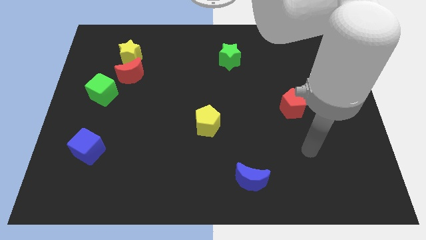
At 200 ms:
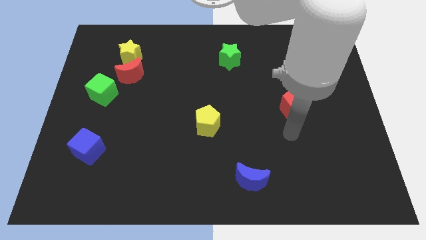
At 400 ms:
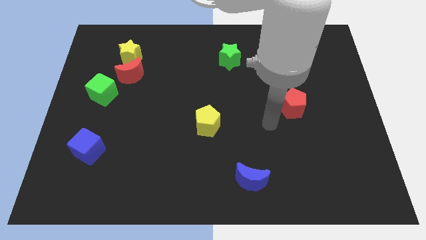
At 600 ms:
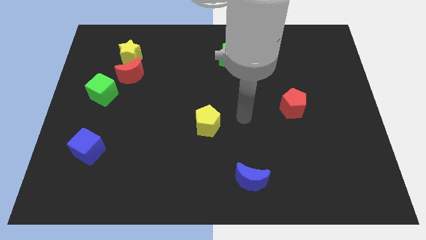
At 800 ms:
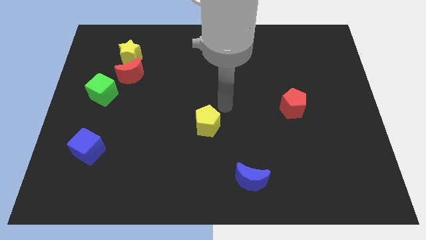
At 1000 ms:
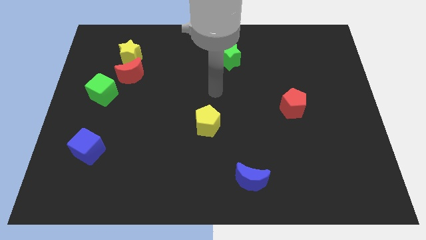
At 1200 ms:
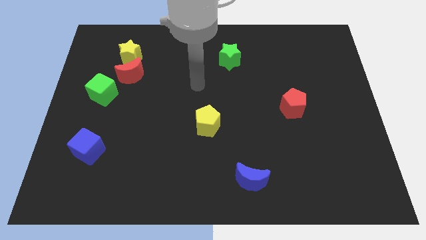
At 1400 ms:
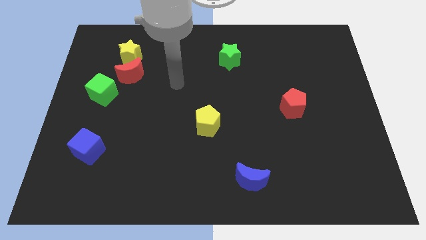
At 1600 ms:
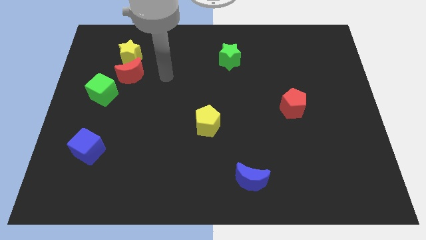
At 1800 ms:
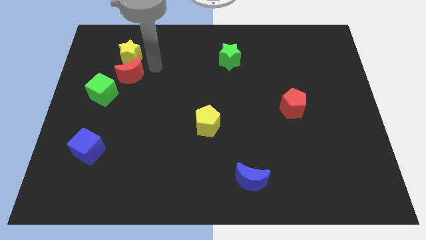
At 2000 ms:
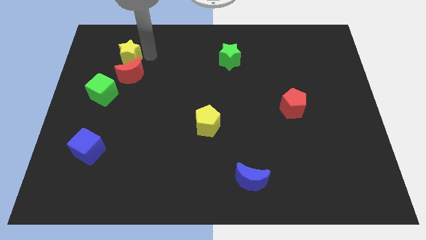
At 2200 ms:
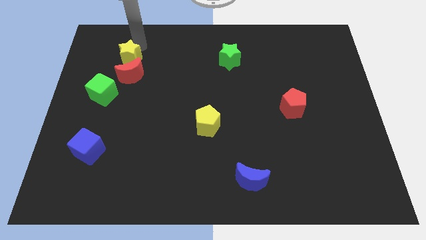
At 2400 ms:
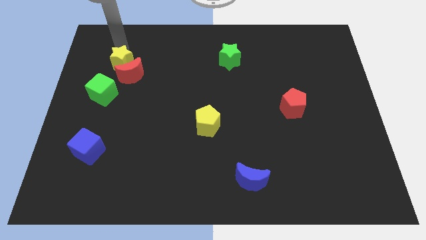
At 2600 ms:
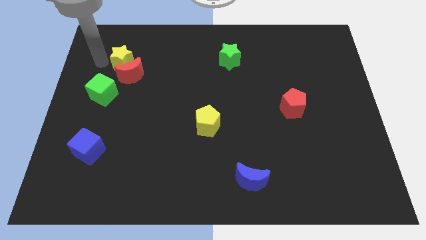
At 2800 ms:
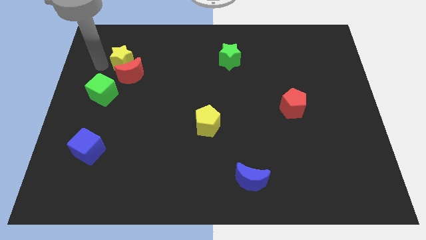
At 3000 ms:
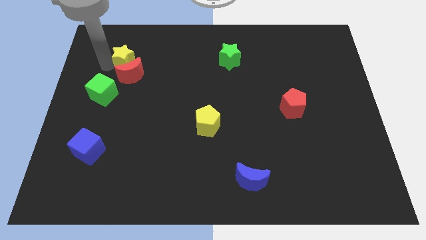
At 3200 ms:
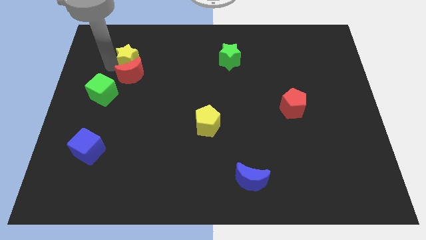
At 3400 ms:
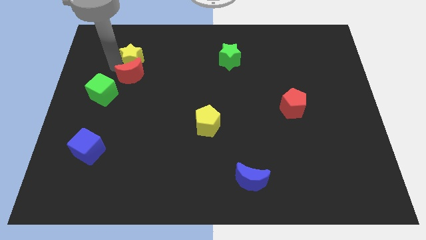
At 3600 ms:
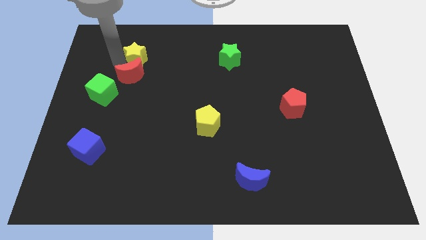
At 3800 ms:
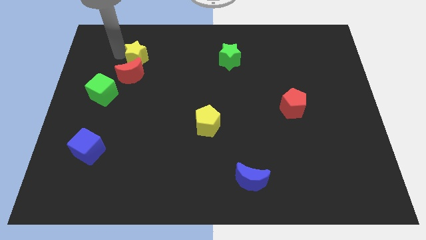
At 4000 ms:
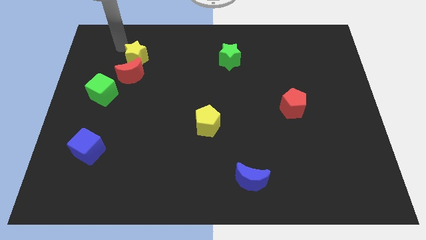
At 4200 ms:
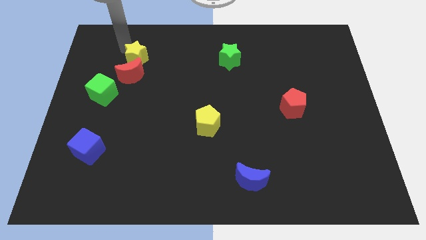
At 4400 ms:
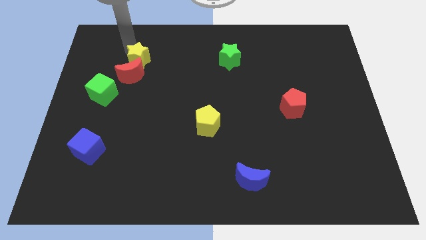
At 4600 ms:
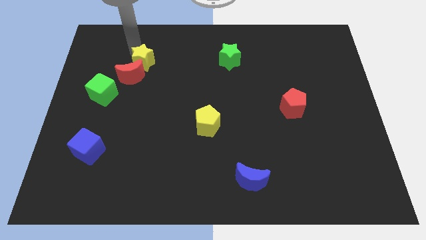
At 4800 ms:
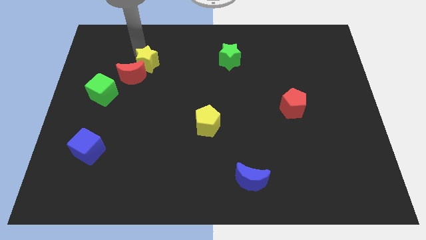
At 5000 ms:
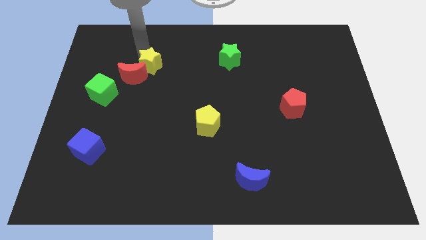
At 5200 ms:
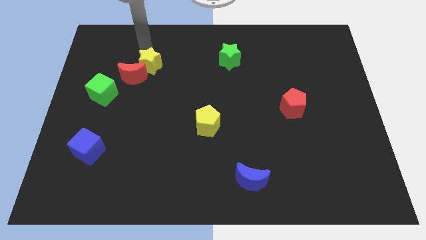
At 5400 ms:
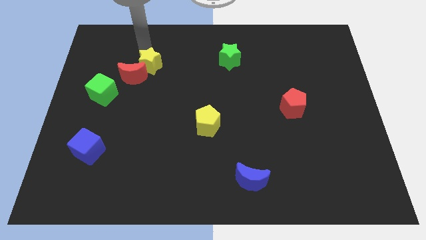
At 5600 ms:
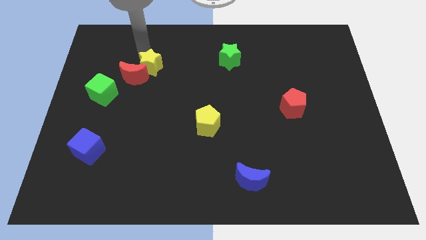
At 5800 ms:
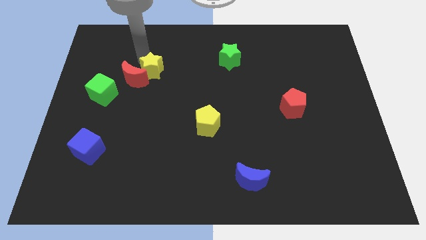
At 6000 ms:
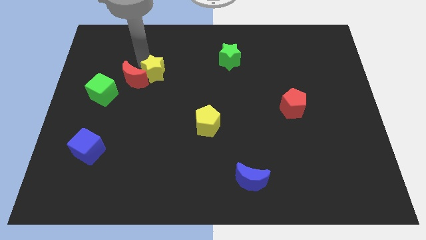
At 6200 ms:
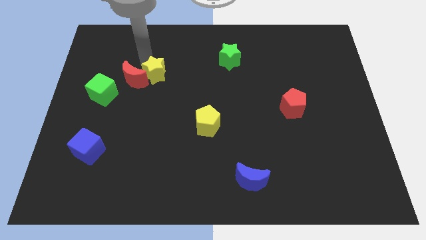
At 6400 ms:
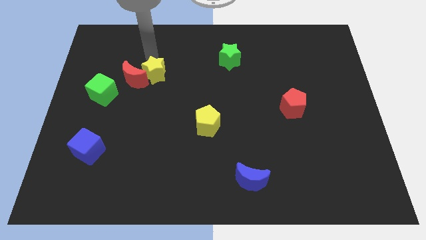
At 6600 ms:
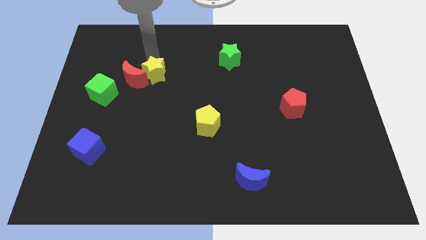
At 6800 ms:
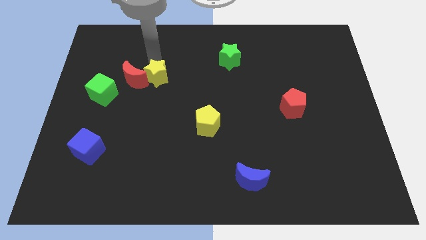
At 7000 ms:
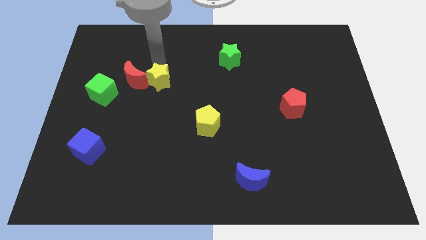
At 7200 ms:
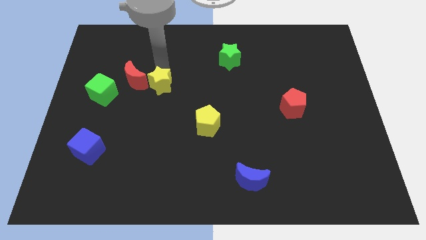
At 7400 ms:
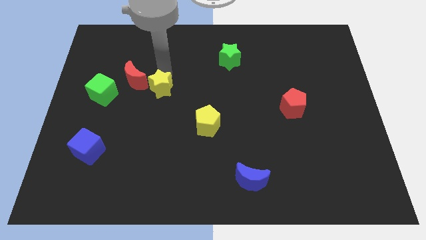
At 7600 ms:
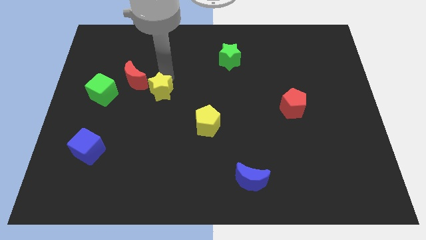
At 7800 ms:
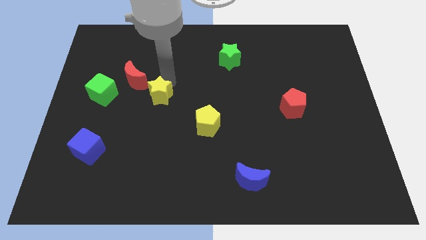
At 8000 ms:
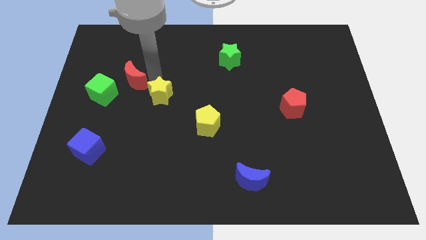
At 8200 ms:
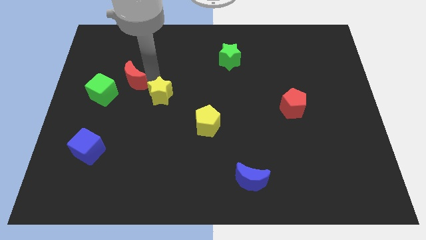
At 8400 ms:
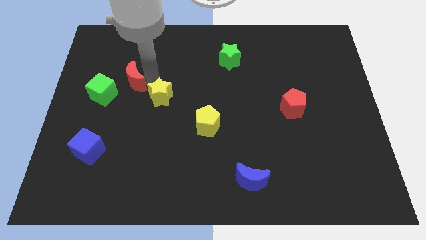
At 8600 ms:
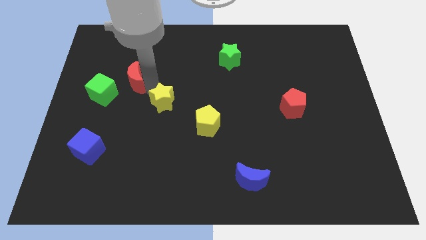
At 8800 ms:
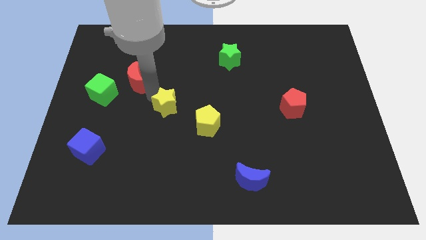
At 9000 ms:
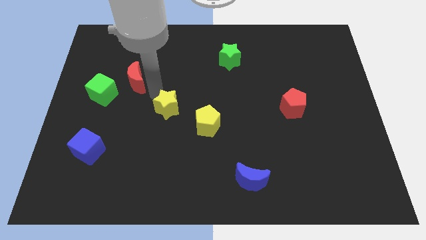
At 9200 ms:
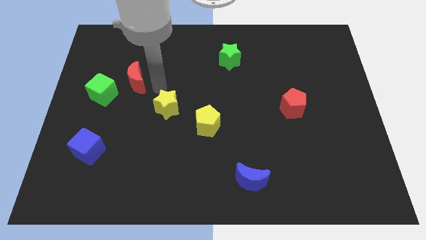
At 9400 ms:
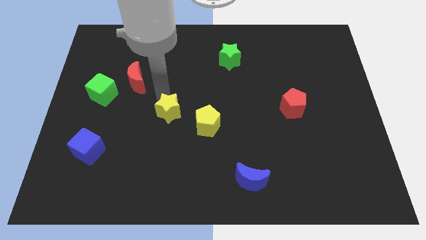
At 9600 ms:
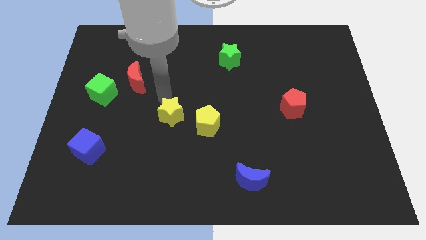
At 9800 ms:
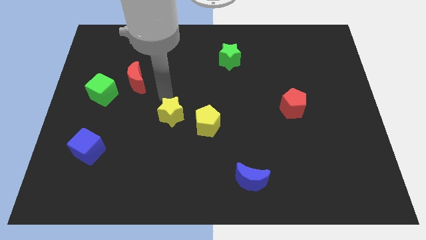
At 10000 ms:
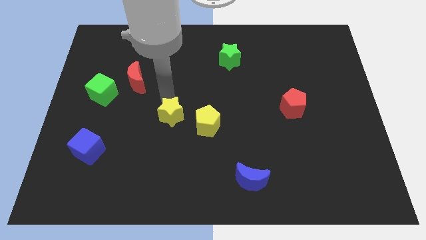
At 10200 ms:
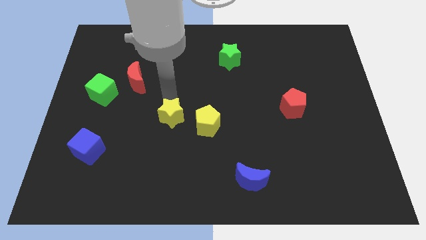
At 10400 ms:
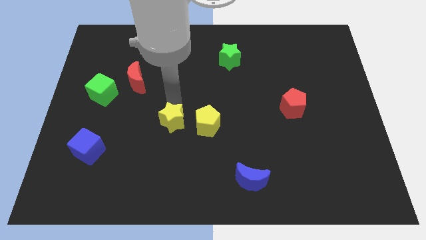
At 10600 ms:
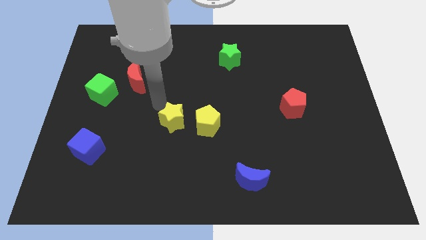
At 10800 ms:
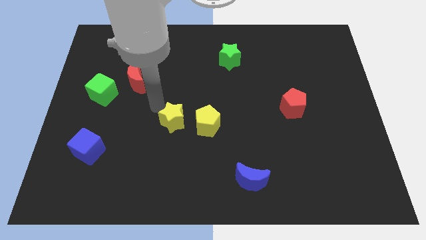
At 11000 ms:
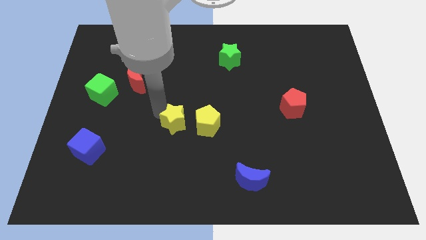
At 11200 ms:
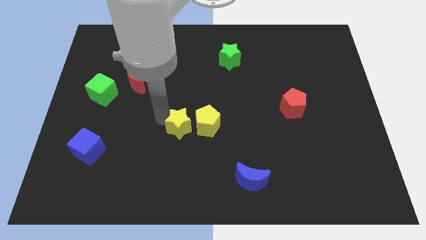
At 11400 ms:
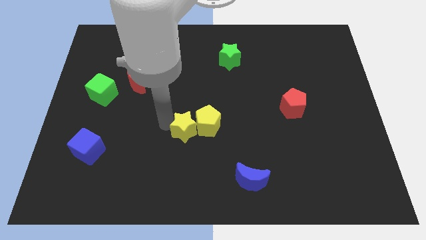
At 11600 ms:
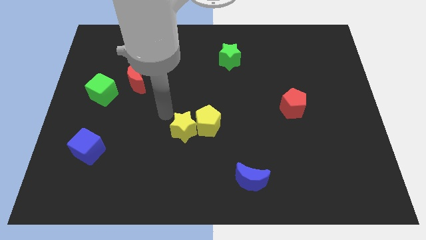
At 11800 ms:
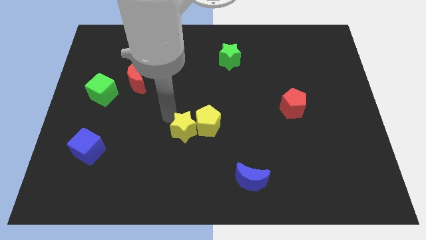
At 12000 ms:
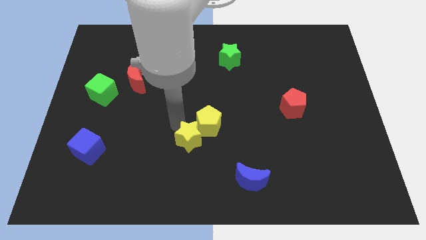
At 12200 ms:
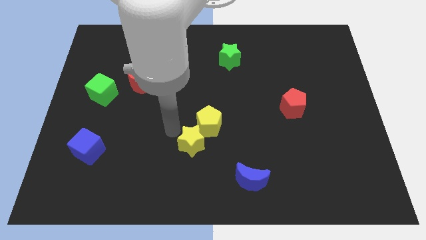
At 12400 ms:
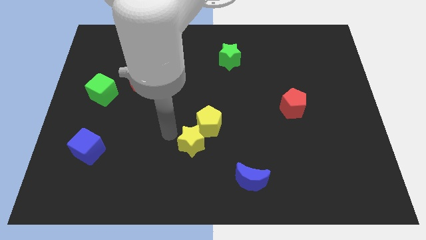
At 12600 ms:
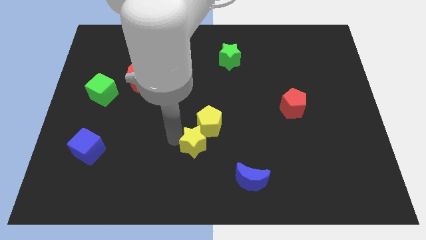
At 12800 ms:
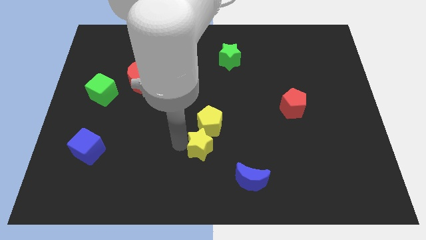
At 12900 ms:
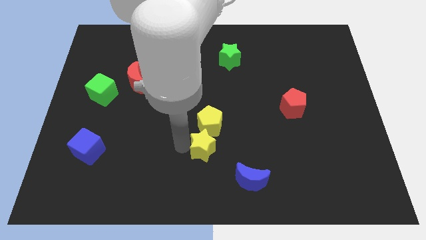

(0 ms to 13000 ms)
slide the yellow star diagonally up and to the left of the blue moon
